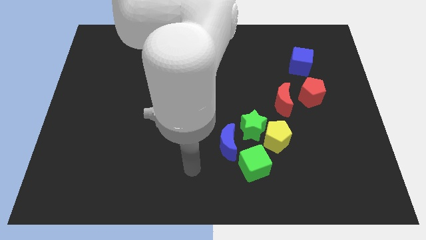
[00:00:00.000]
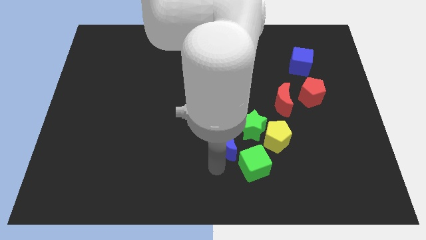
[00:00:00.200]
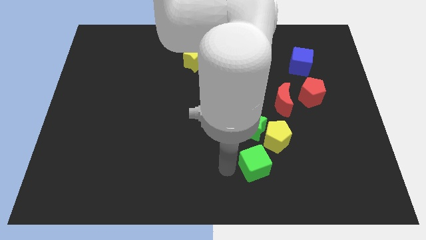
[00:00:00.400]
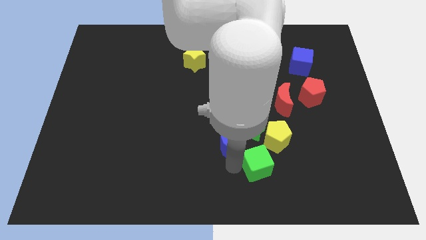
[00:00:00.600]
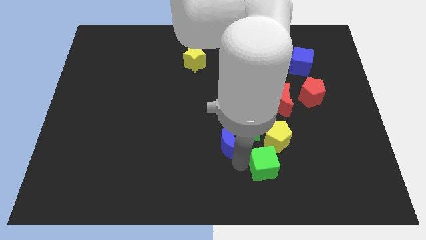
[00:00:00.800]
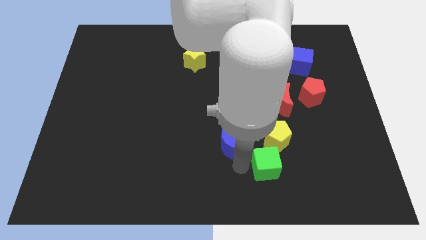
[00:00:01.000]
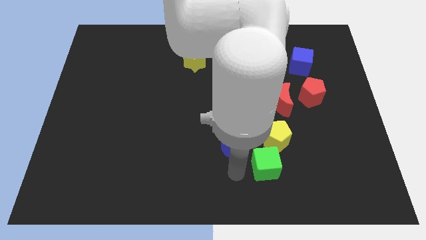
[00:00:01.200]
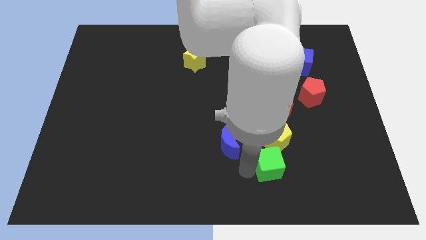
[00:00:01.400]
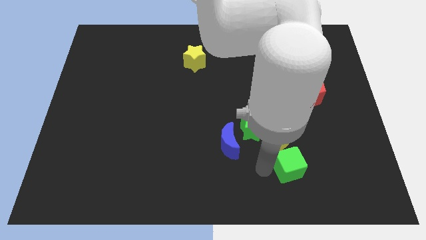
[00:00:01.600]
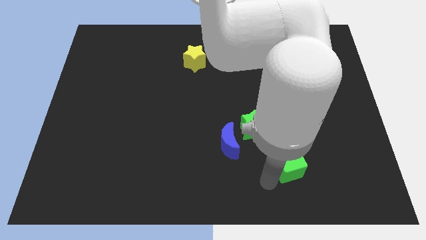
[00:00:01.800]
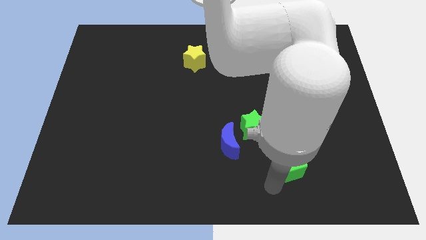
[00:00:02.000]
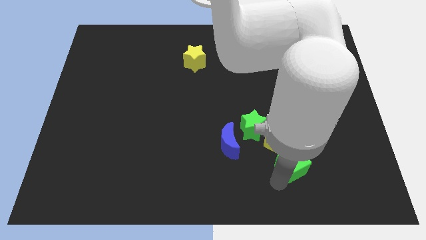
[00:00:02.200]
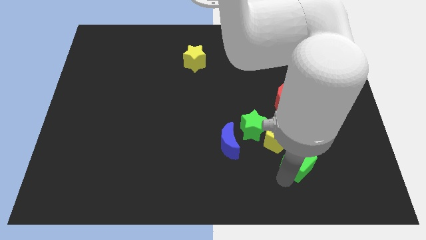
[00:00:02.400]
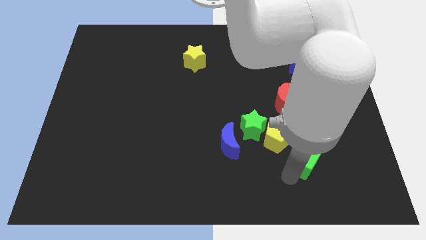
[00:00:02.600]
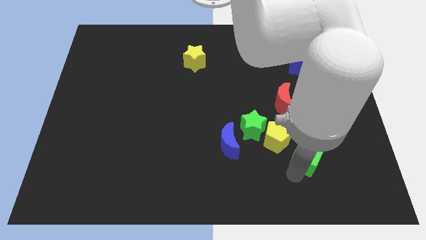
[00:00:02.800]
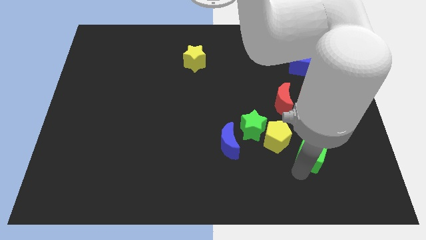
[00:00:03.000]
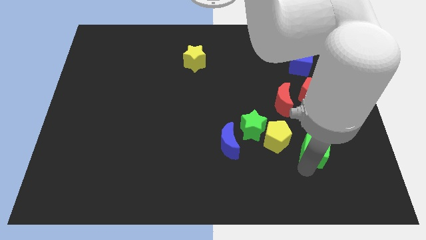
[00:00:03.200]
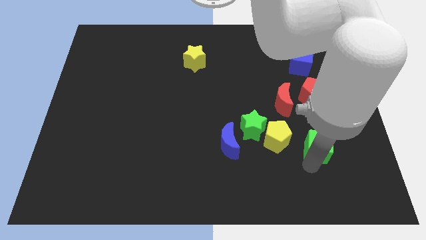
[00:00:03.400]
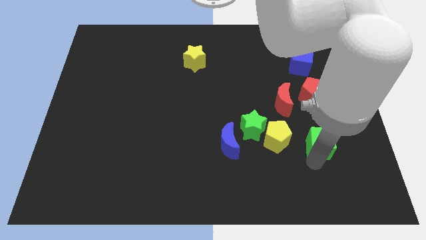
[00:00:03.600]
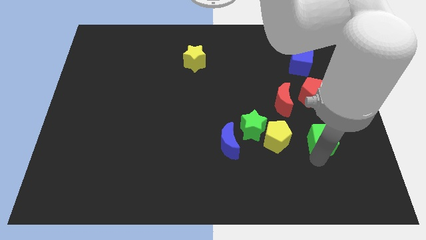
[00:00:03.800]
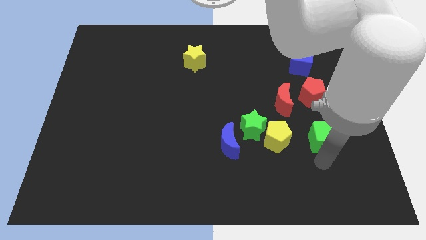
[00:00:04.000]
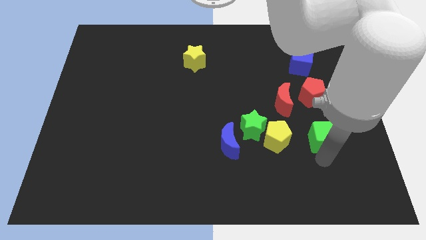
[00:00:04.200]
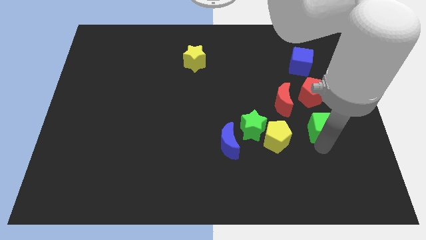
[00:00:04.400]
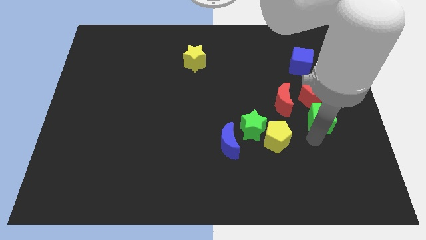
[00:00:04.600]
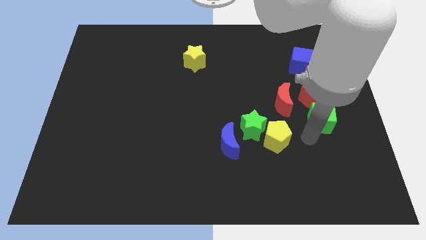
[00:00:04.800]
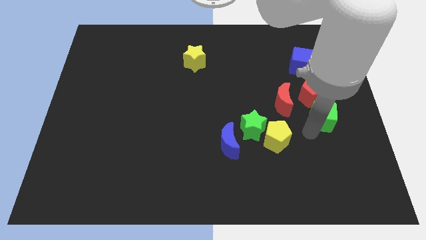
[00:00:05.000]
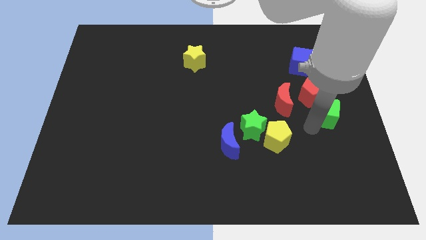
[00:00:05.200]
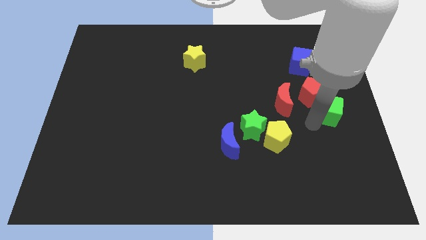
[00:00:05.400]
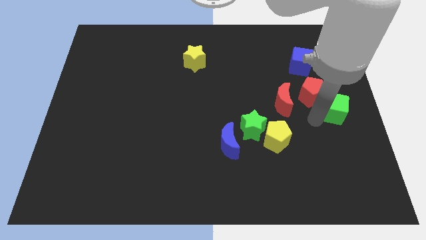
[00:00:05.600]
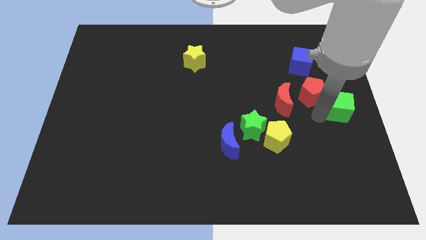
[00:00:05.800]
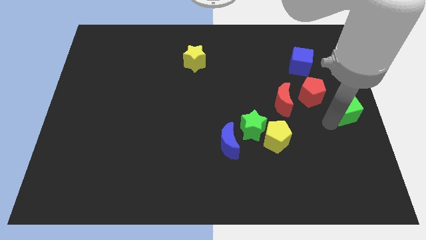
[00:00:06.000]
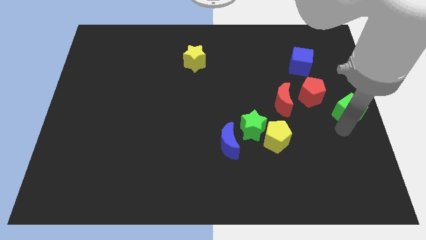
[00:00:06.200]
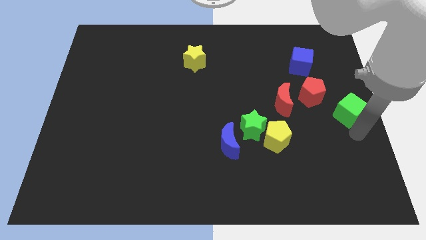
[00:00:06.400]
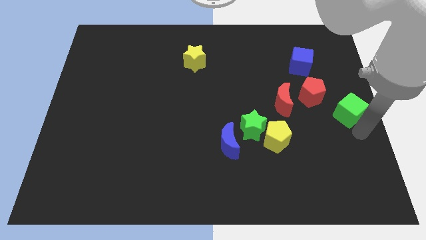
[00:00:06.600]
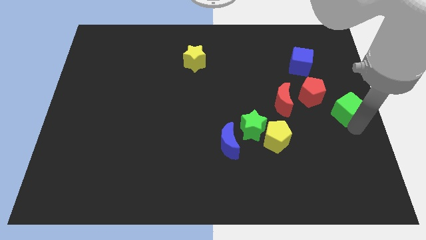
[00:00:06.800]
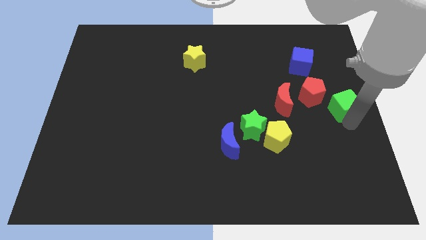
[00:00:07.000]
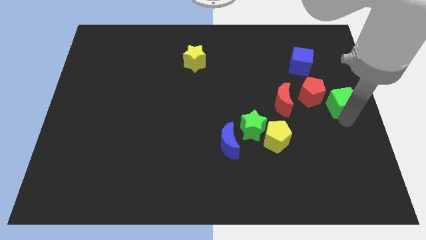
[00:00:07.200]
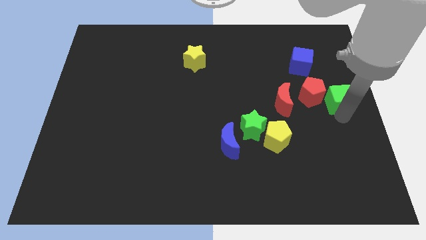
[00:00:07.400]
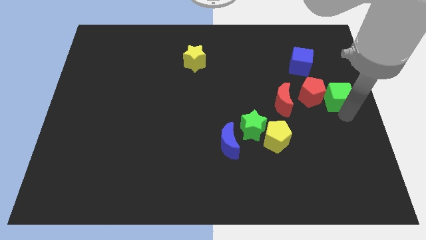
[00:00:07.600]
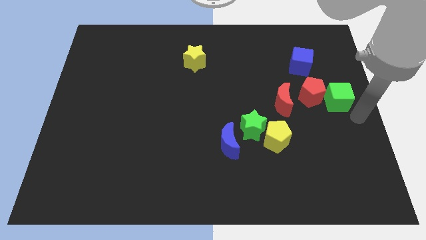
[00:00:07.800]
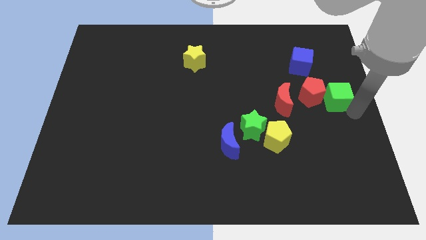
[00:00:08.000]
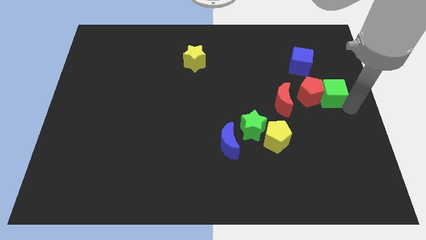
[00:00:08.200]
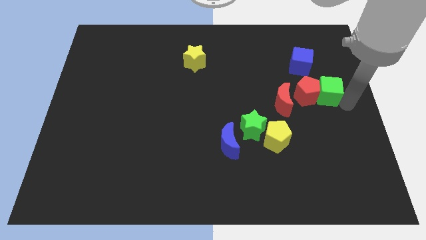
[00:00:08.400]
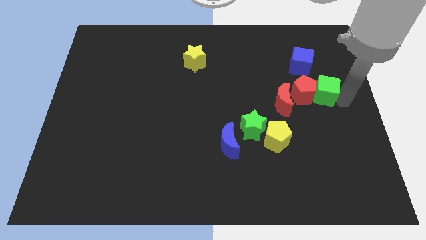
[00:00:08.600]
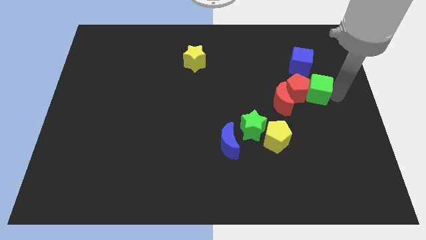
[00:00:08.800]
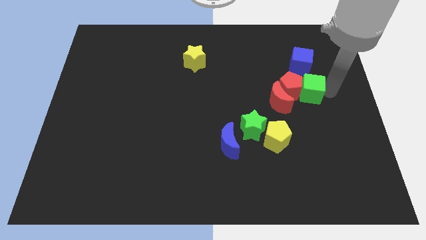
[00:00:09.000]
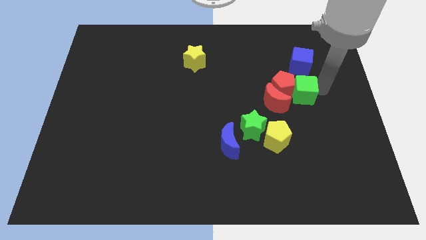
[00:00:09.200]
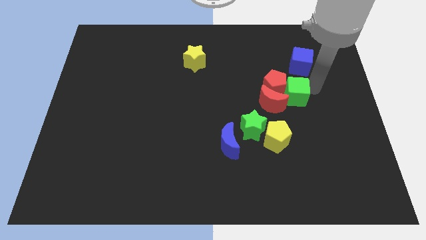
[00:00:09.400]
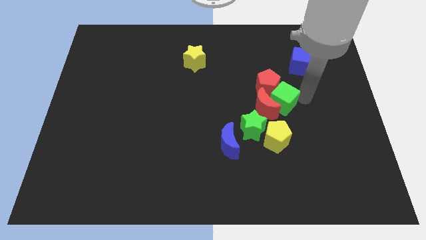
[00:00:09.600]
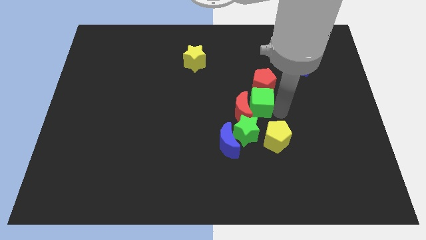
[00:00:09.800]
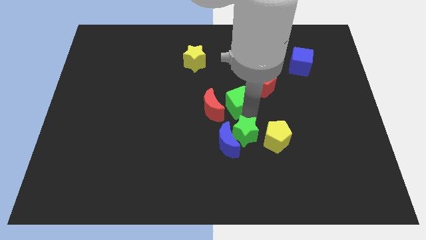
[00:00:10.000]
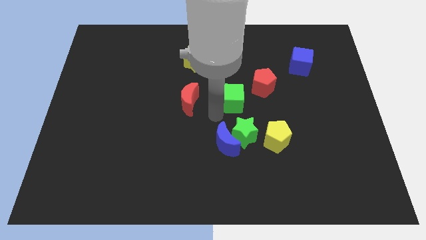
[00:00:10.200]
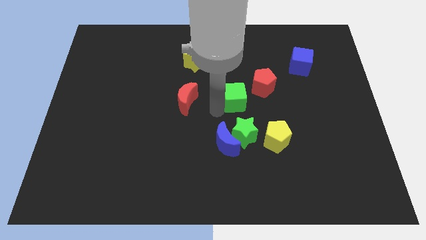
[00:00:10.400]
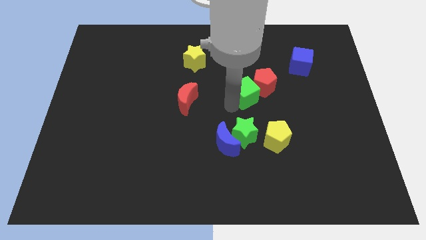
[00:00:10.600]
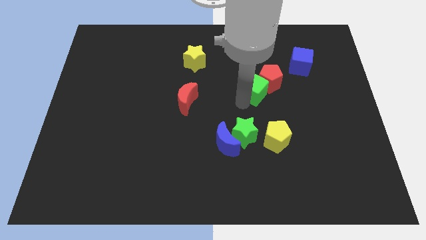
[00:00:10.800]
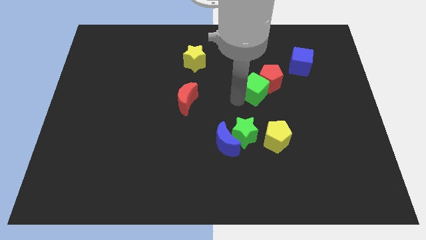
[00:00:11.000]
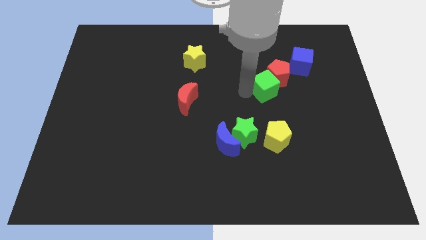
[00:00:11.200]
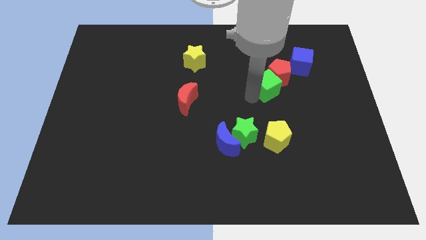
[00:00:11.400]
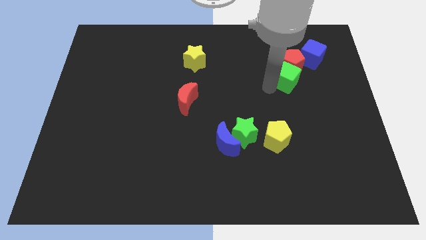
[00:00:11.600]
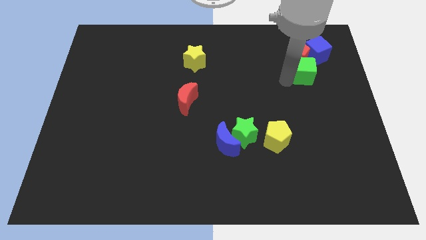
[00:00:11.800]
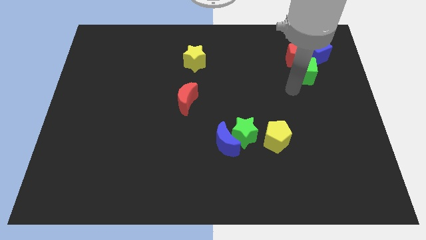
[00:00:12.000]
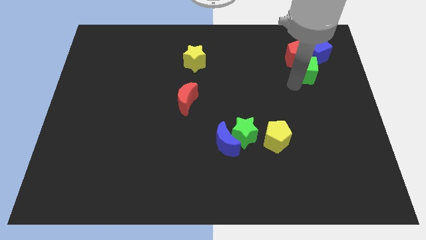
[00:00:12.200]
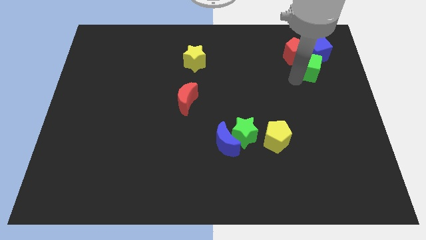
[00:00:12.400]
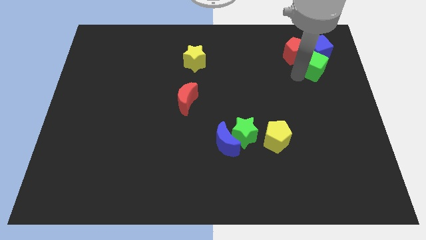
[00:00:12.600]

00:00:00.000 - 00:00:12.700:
put the green cube next to the blue cube

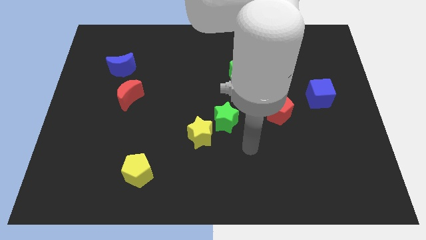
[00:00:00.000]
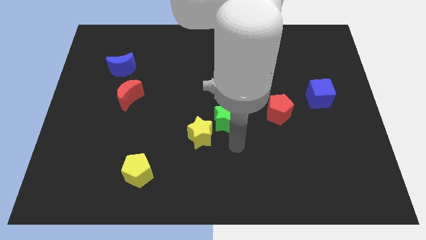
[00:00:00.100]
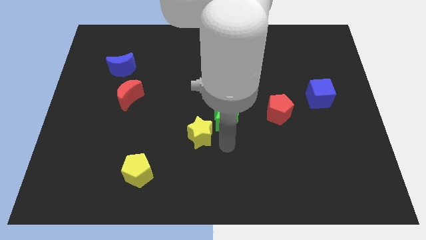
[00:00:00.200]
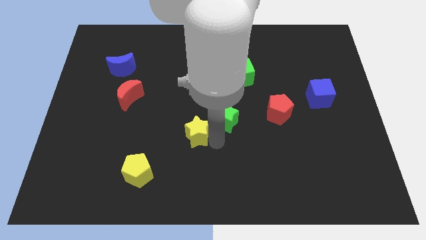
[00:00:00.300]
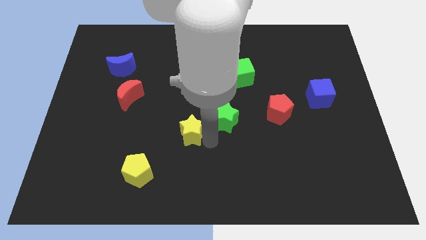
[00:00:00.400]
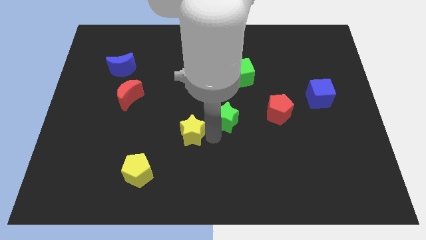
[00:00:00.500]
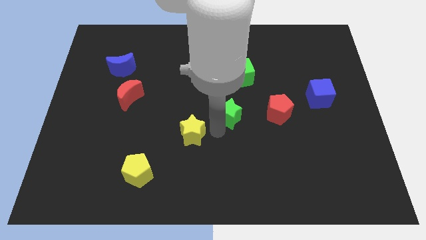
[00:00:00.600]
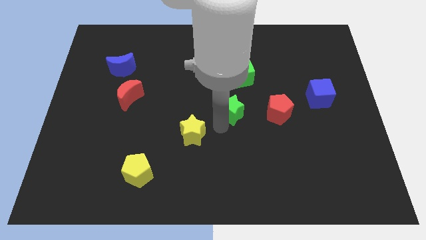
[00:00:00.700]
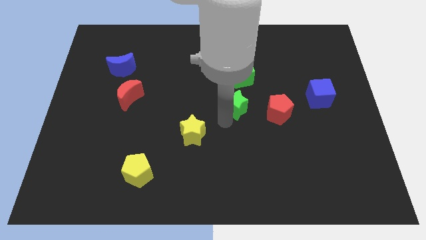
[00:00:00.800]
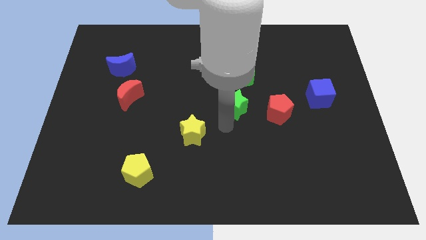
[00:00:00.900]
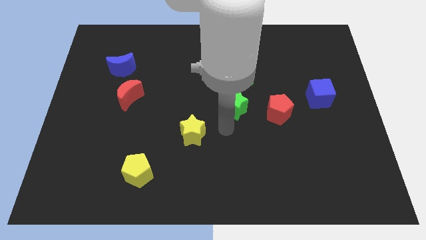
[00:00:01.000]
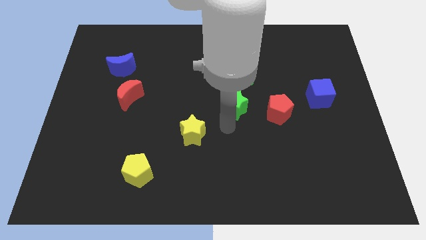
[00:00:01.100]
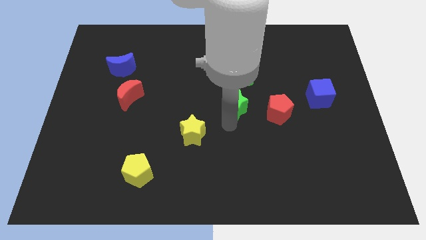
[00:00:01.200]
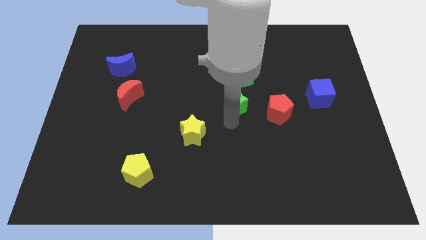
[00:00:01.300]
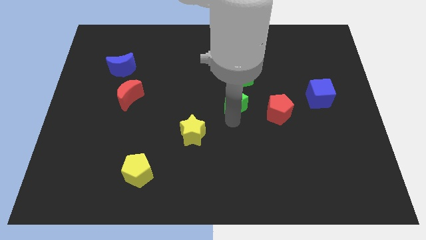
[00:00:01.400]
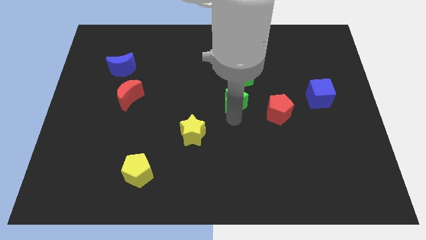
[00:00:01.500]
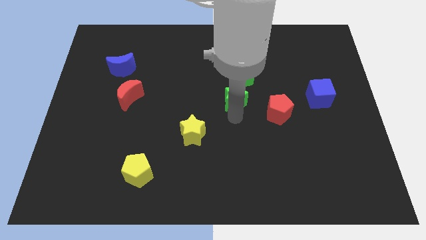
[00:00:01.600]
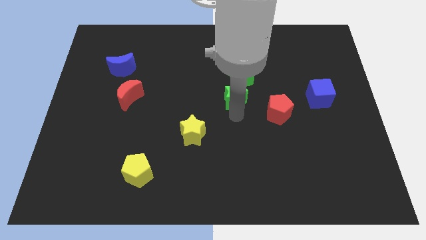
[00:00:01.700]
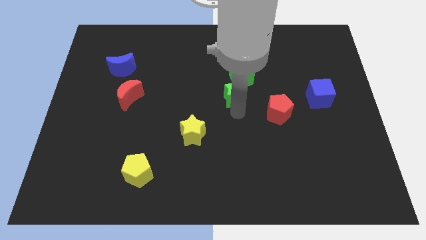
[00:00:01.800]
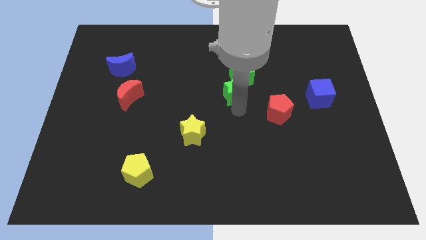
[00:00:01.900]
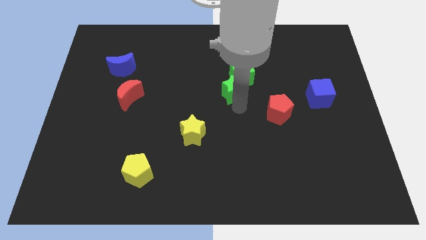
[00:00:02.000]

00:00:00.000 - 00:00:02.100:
slide the green star to the green cube
